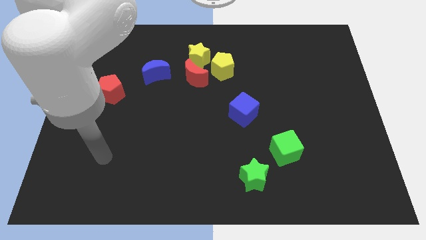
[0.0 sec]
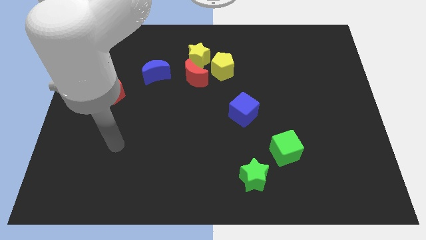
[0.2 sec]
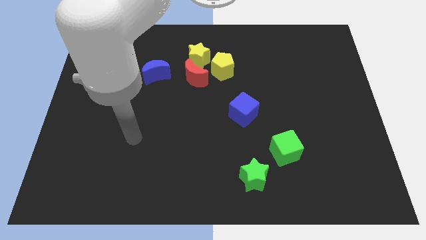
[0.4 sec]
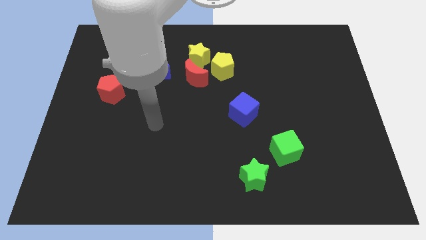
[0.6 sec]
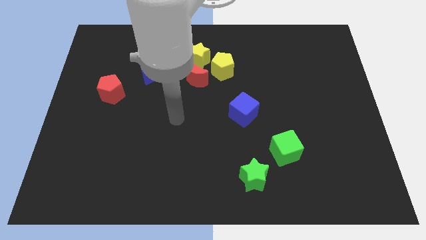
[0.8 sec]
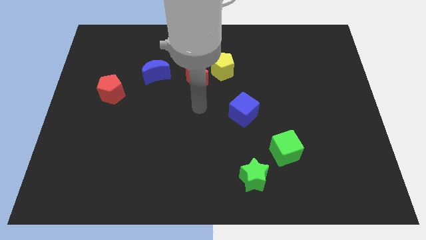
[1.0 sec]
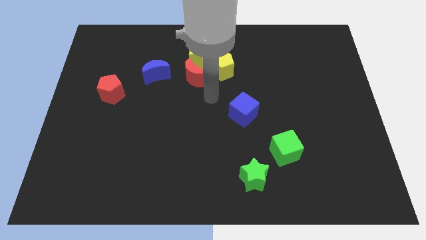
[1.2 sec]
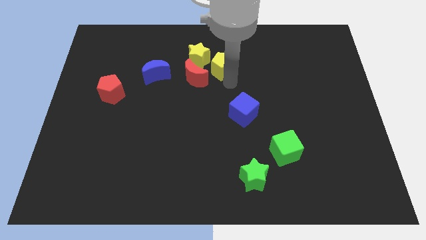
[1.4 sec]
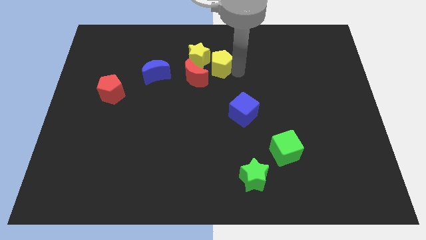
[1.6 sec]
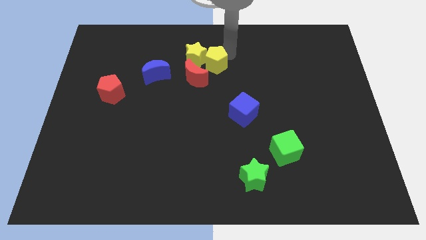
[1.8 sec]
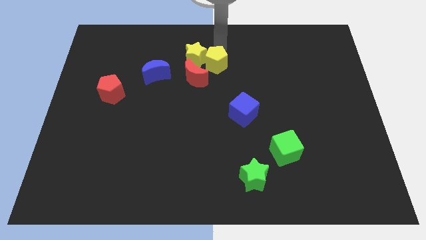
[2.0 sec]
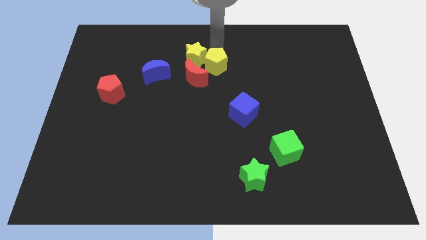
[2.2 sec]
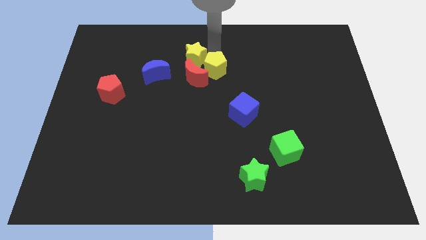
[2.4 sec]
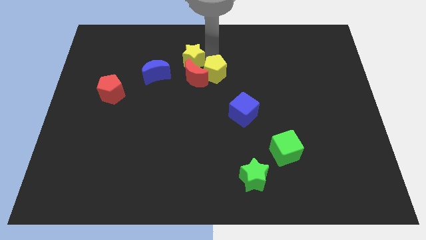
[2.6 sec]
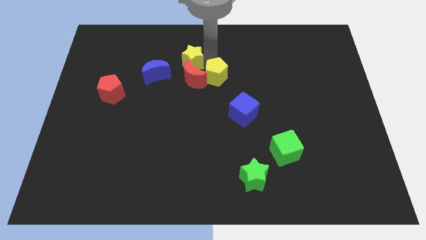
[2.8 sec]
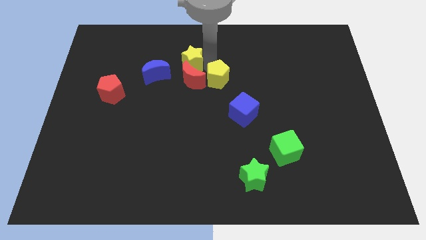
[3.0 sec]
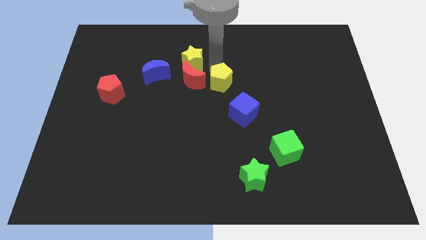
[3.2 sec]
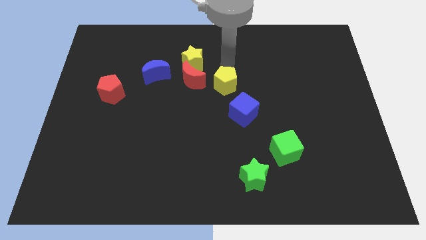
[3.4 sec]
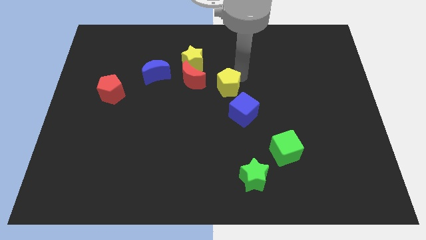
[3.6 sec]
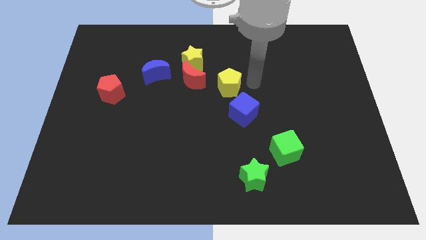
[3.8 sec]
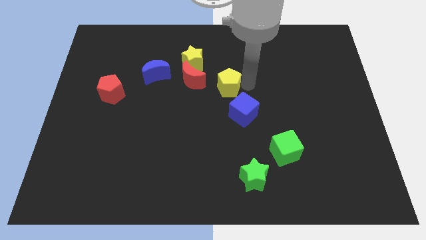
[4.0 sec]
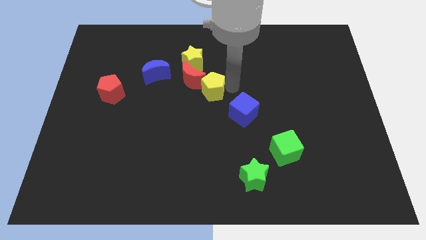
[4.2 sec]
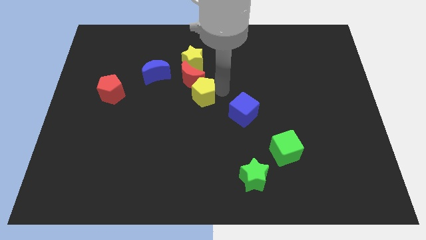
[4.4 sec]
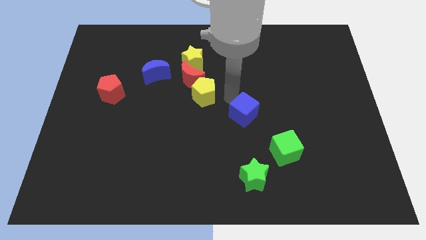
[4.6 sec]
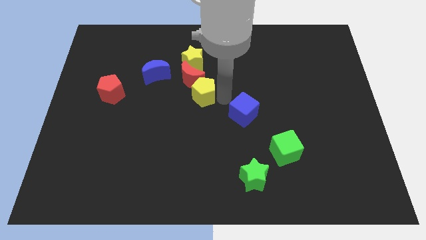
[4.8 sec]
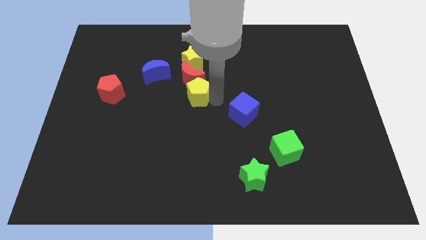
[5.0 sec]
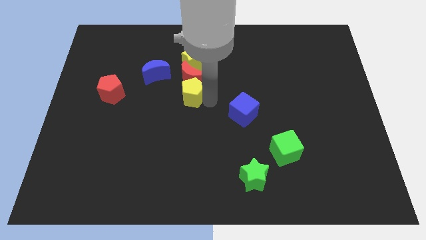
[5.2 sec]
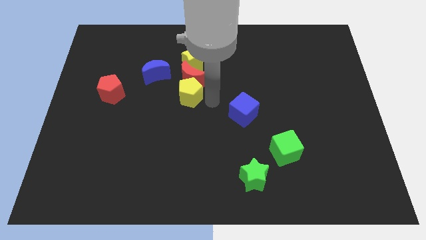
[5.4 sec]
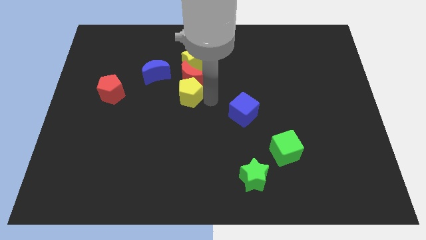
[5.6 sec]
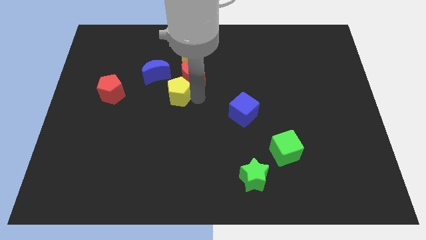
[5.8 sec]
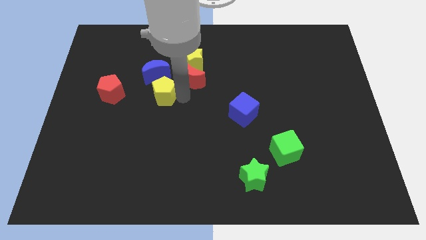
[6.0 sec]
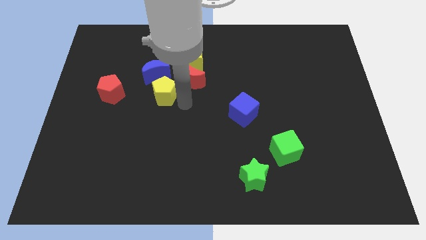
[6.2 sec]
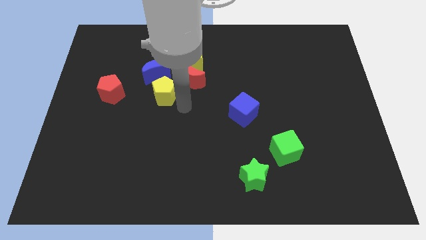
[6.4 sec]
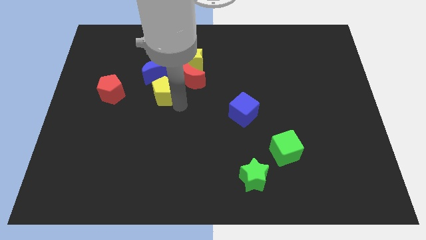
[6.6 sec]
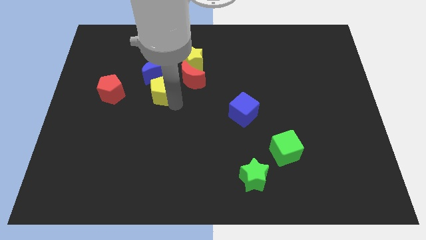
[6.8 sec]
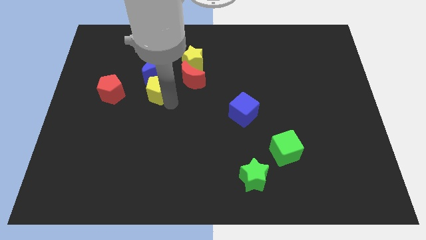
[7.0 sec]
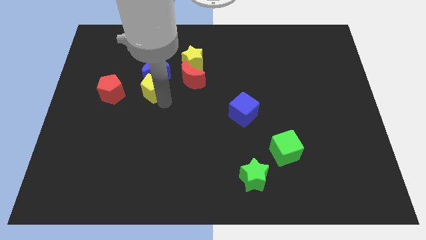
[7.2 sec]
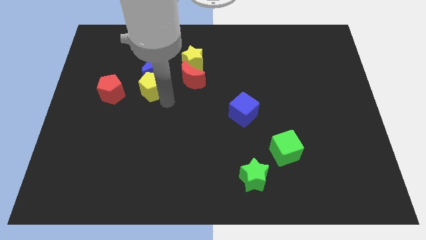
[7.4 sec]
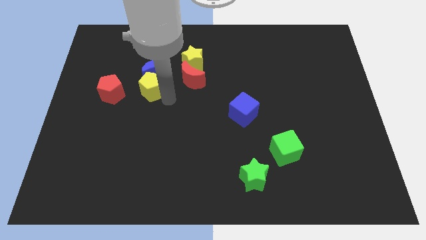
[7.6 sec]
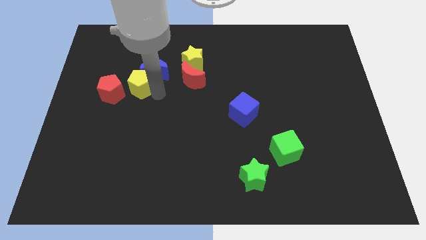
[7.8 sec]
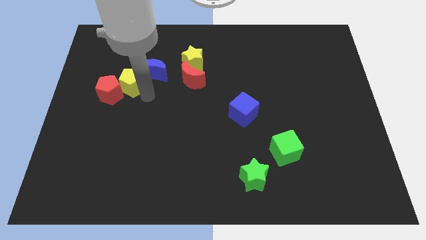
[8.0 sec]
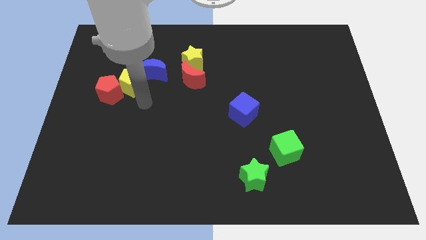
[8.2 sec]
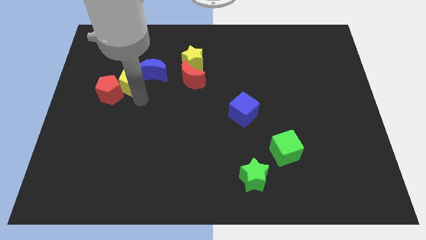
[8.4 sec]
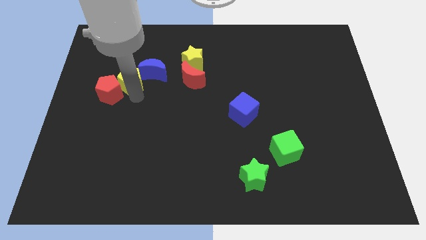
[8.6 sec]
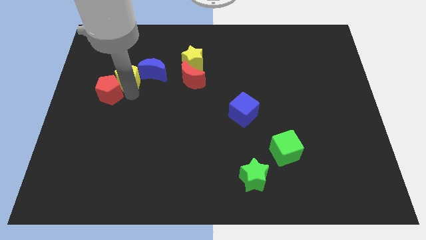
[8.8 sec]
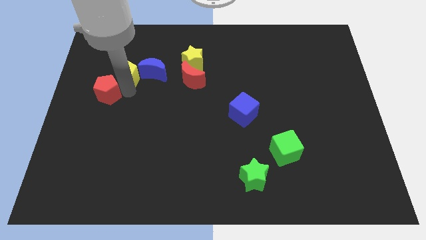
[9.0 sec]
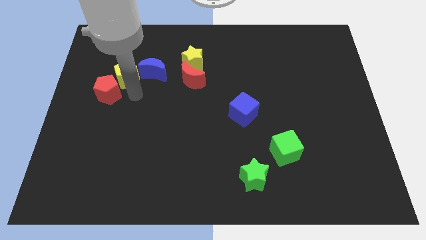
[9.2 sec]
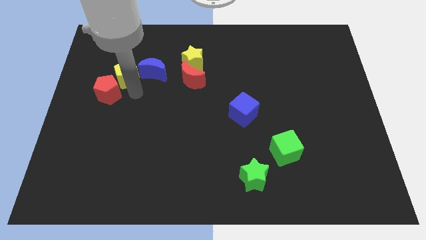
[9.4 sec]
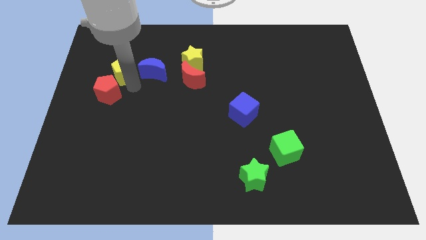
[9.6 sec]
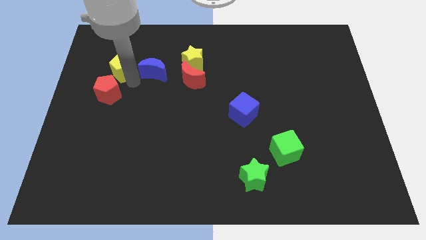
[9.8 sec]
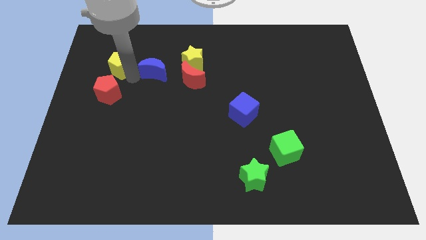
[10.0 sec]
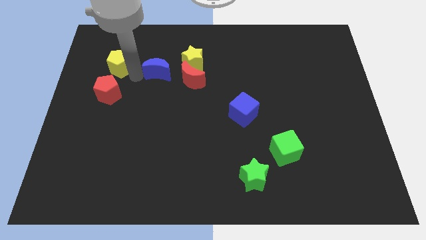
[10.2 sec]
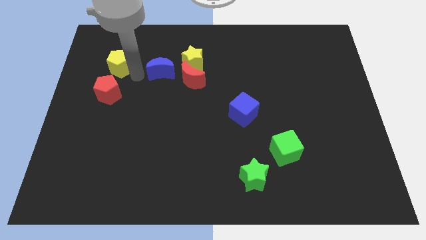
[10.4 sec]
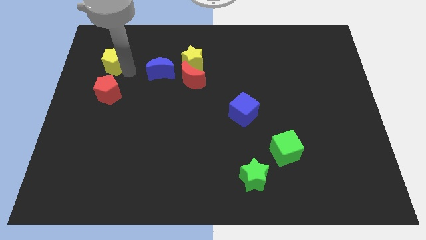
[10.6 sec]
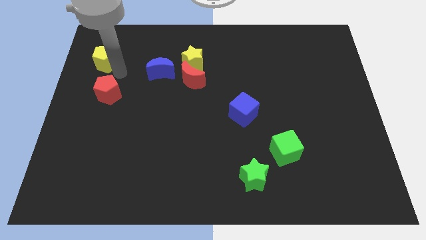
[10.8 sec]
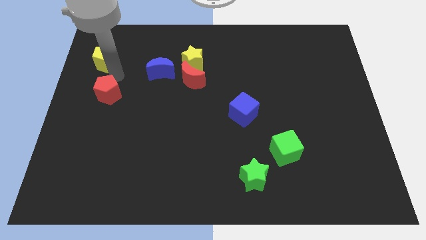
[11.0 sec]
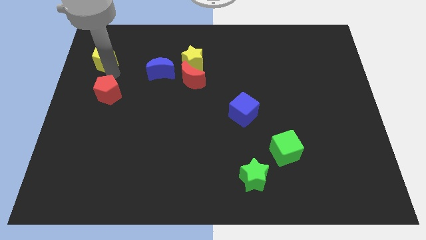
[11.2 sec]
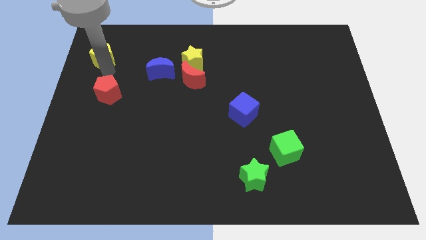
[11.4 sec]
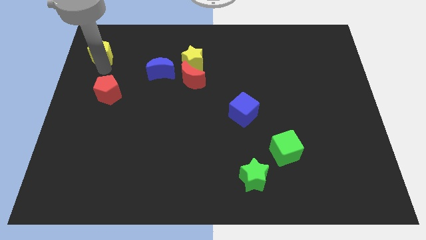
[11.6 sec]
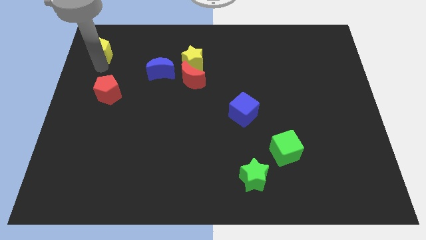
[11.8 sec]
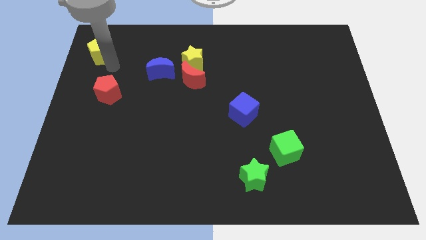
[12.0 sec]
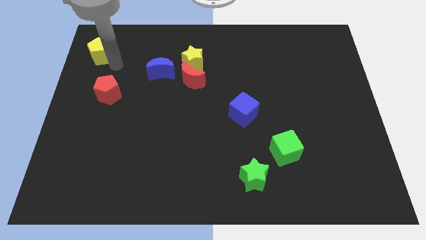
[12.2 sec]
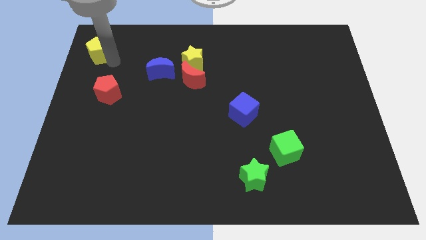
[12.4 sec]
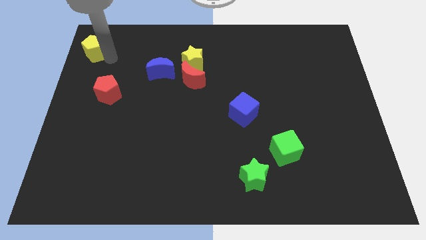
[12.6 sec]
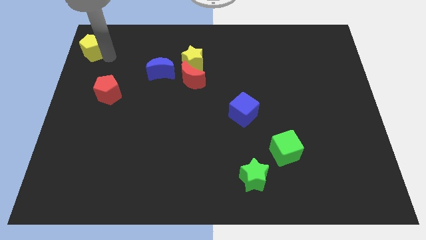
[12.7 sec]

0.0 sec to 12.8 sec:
push the yellow pentagon to the top left corner

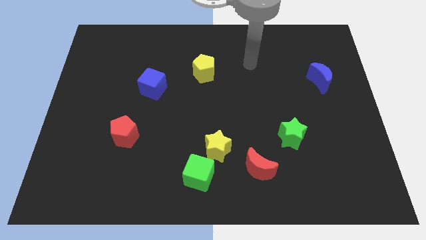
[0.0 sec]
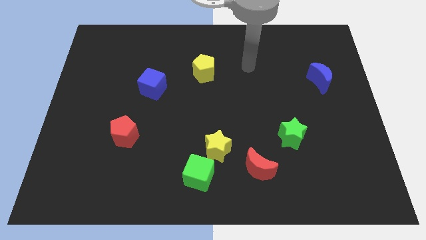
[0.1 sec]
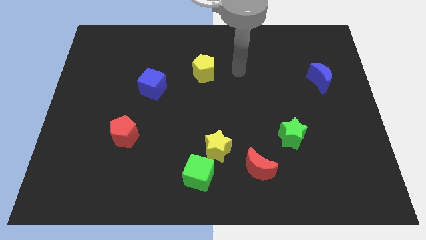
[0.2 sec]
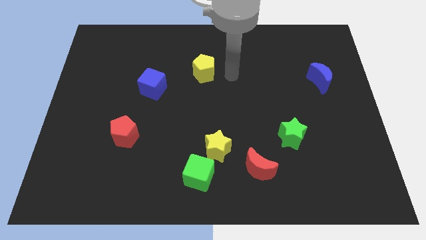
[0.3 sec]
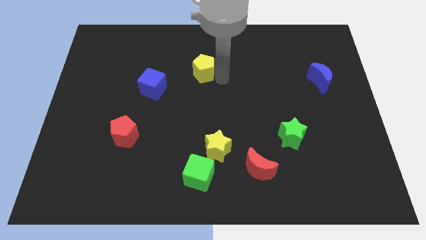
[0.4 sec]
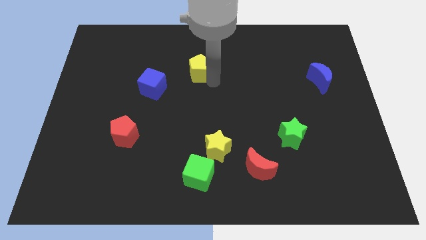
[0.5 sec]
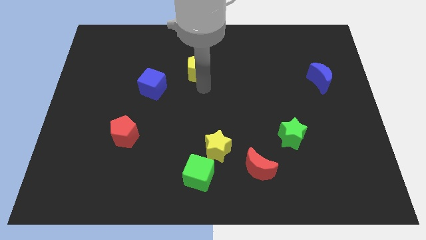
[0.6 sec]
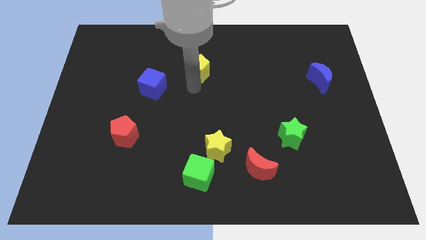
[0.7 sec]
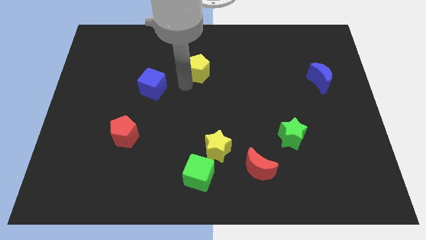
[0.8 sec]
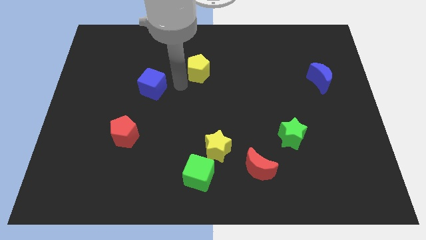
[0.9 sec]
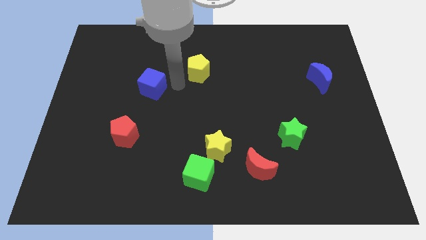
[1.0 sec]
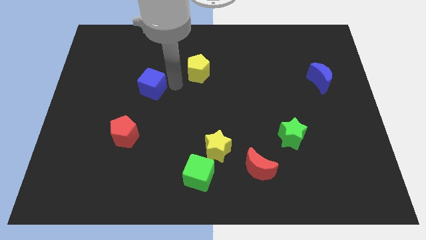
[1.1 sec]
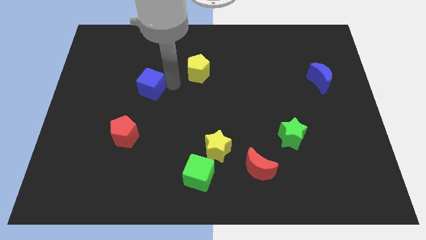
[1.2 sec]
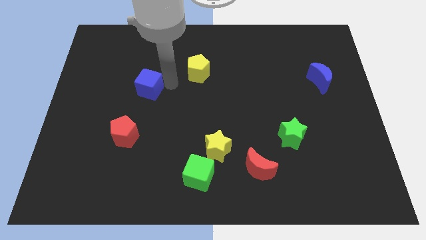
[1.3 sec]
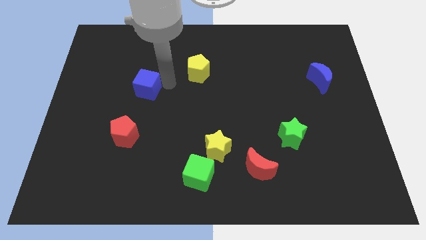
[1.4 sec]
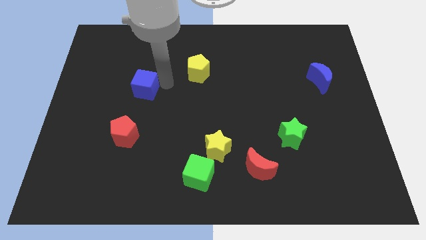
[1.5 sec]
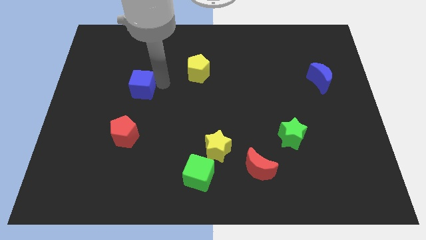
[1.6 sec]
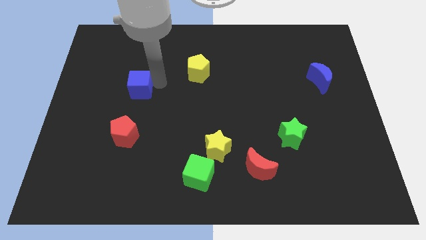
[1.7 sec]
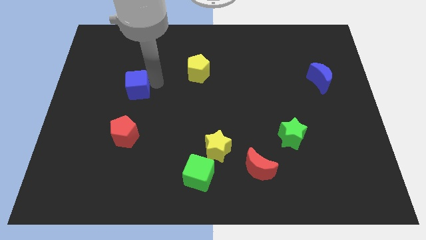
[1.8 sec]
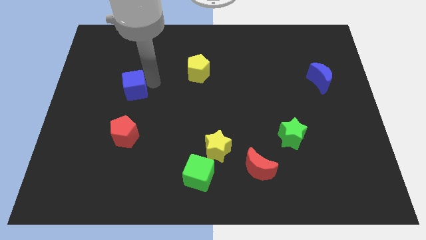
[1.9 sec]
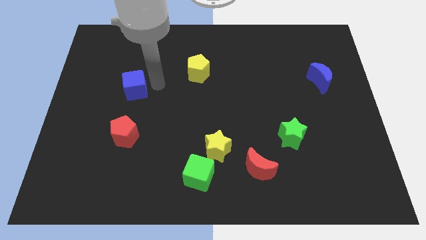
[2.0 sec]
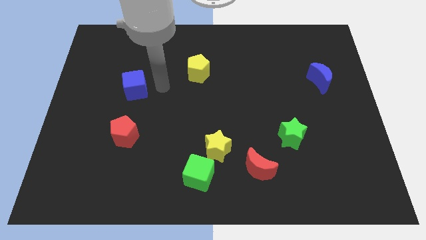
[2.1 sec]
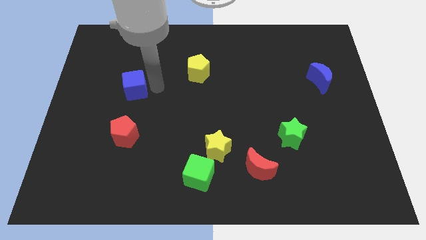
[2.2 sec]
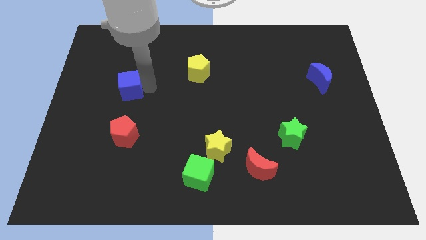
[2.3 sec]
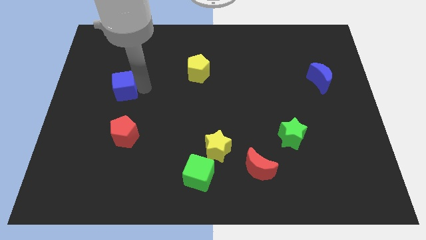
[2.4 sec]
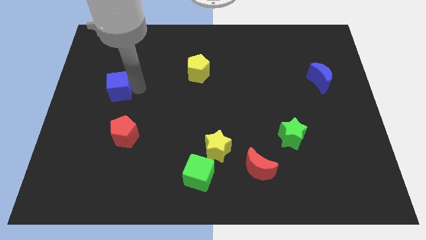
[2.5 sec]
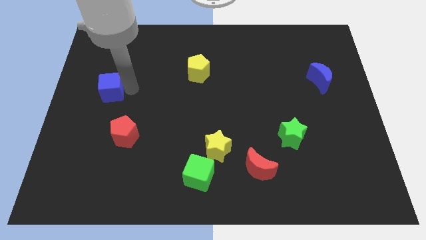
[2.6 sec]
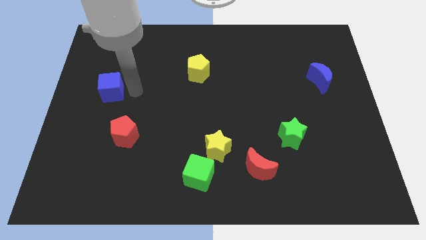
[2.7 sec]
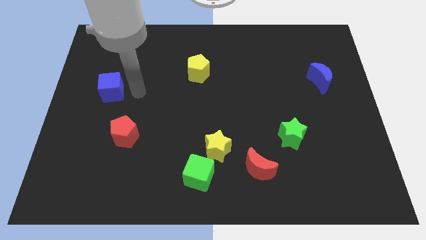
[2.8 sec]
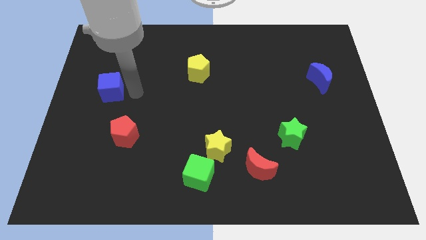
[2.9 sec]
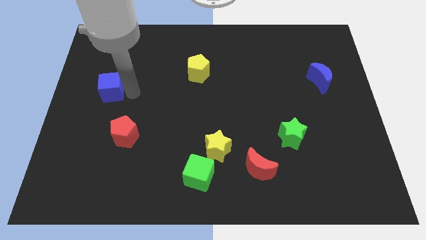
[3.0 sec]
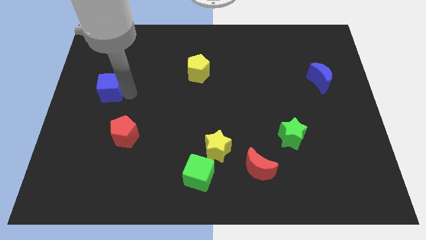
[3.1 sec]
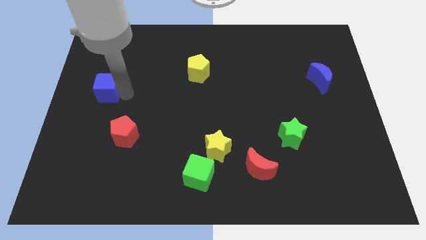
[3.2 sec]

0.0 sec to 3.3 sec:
move the blue cube to the center left
